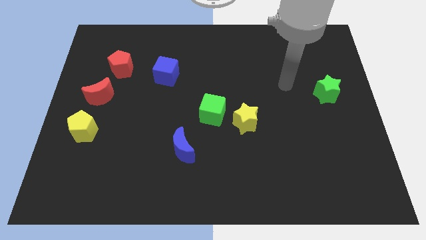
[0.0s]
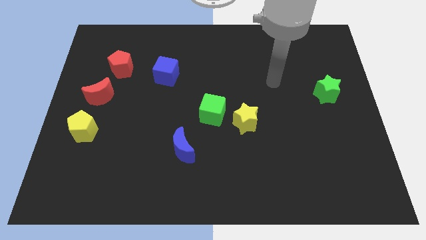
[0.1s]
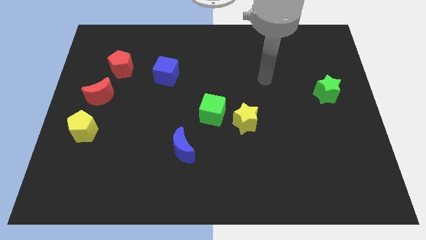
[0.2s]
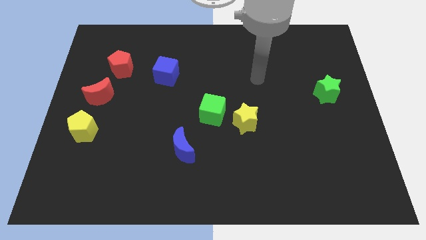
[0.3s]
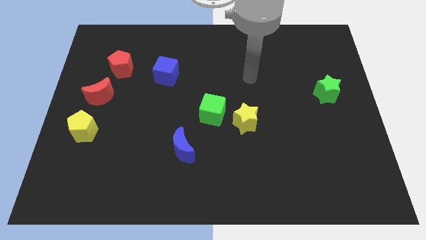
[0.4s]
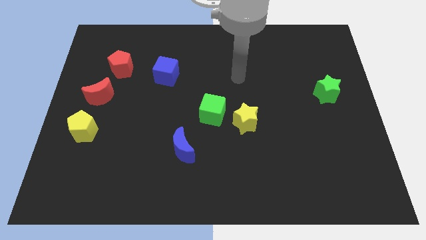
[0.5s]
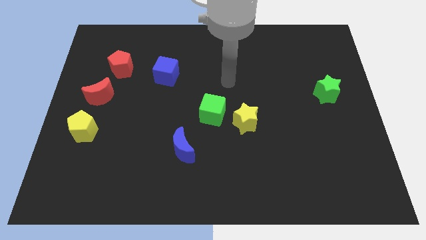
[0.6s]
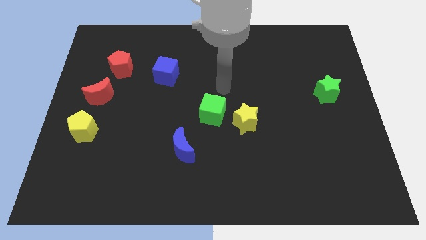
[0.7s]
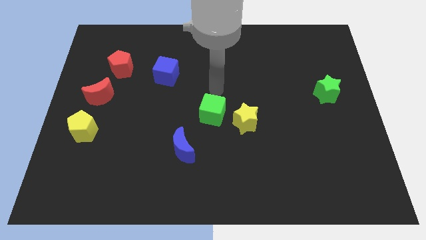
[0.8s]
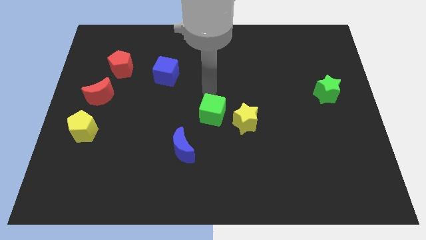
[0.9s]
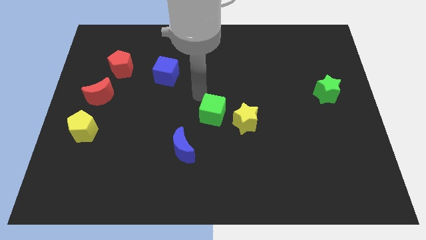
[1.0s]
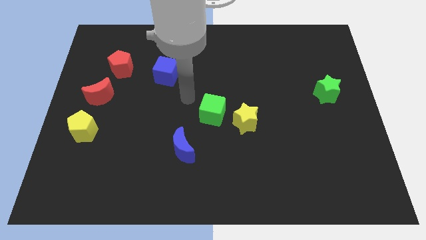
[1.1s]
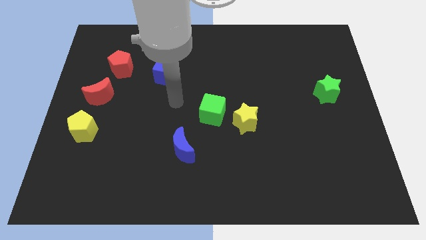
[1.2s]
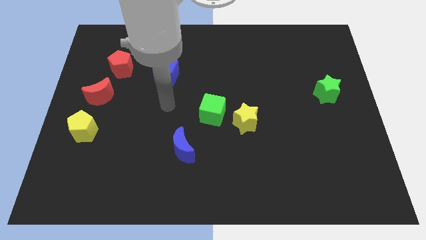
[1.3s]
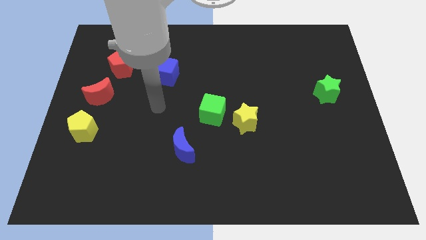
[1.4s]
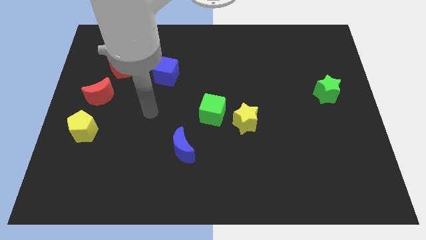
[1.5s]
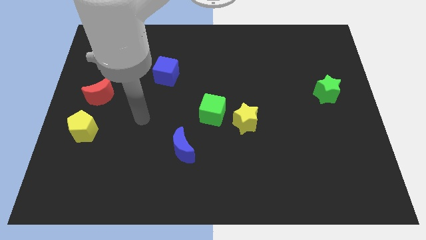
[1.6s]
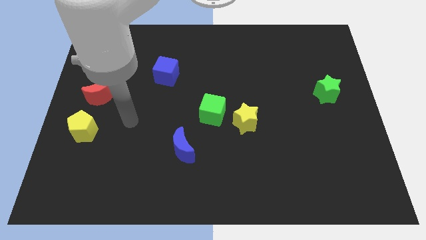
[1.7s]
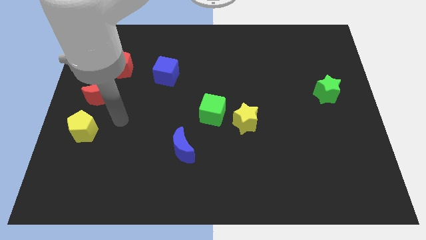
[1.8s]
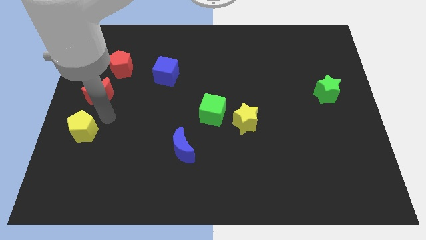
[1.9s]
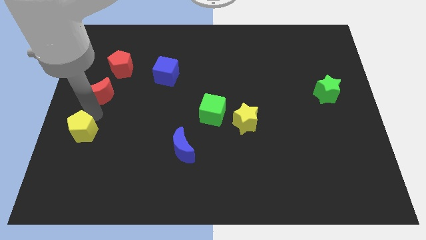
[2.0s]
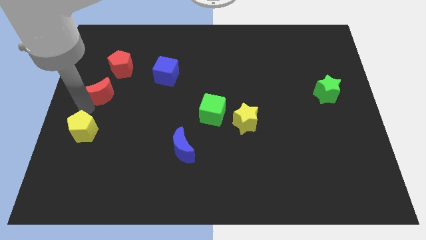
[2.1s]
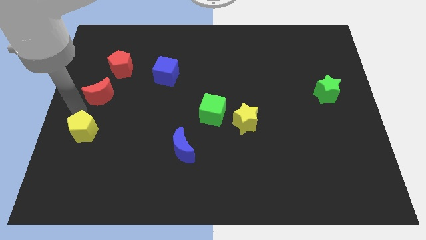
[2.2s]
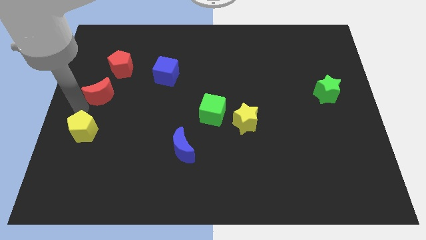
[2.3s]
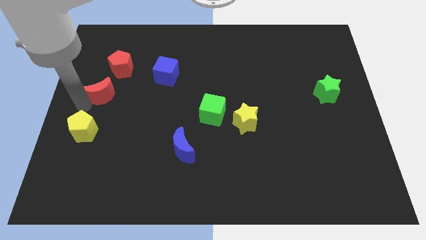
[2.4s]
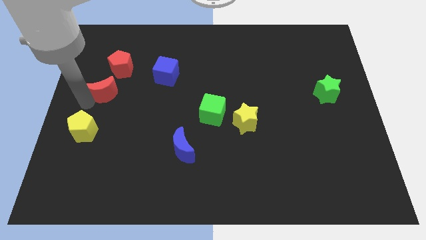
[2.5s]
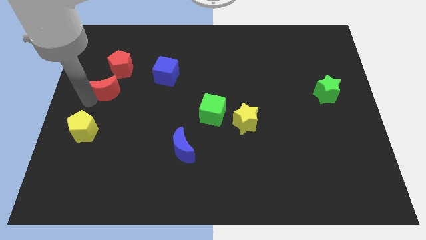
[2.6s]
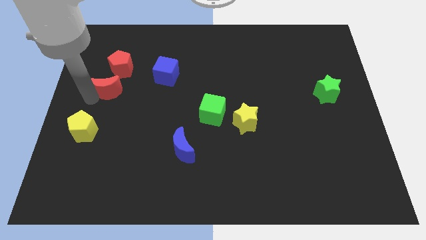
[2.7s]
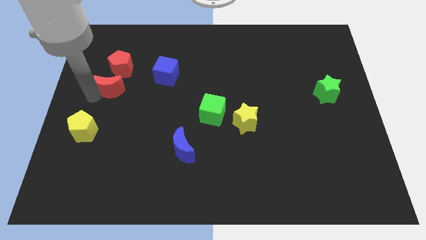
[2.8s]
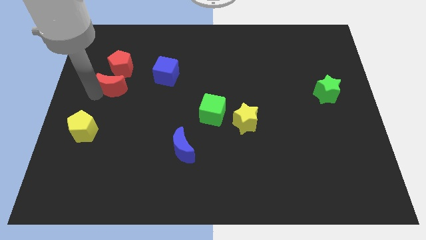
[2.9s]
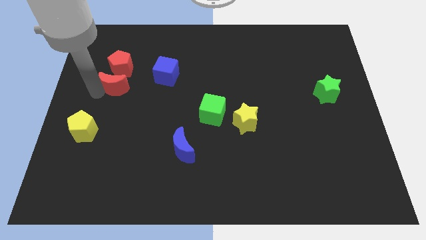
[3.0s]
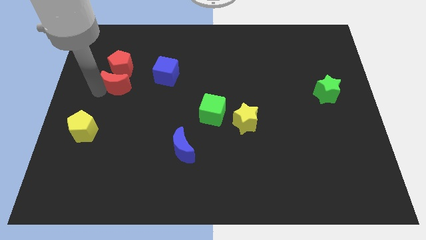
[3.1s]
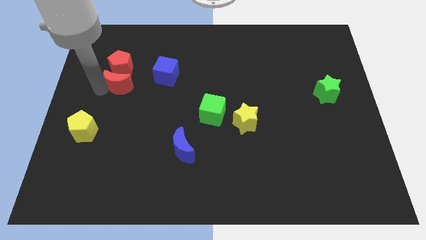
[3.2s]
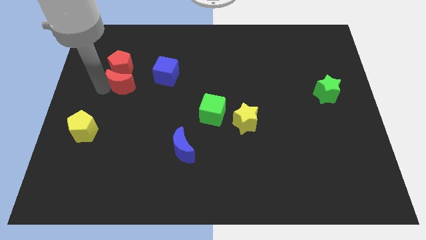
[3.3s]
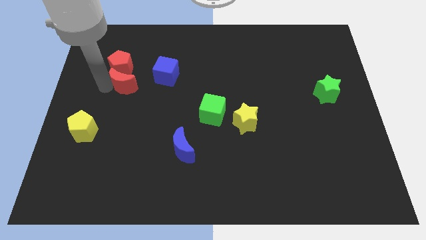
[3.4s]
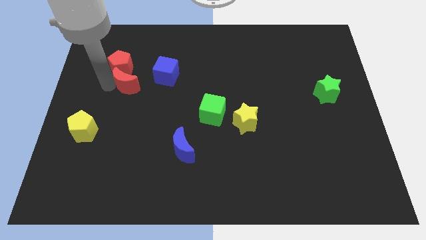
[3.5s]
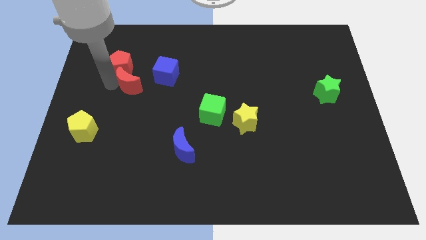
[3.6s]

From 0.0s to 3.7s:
push the red moon somewhat diagonally up and to the right

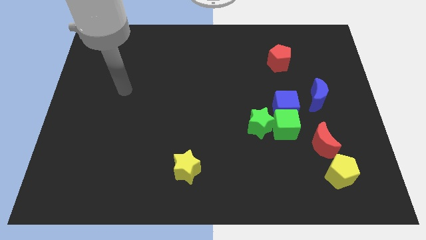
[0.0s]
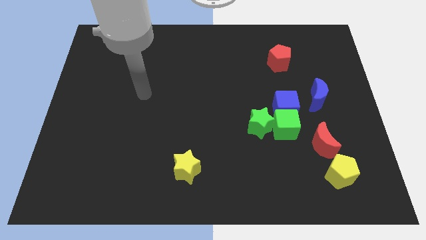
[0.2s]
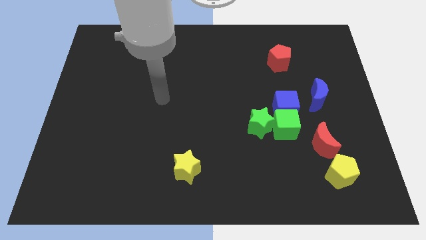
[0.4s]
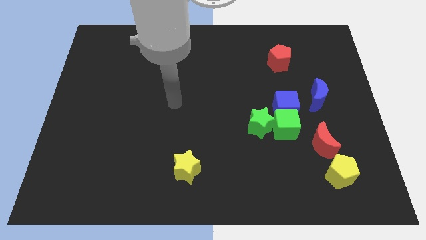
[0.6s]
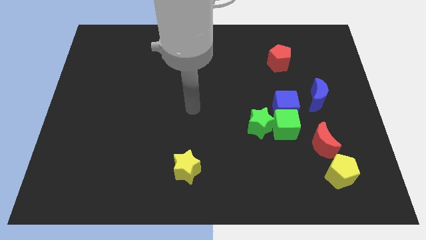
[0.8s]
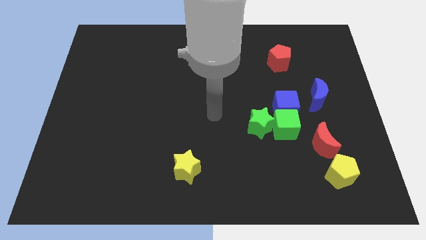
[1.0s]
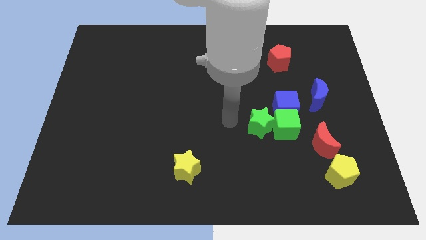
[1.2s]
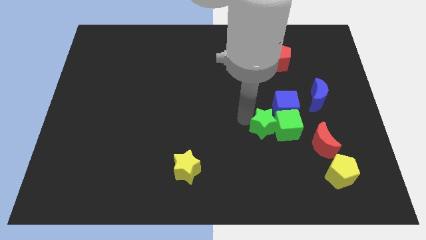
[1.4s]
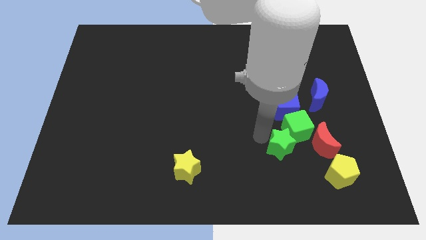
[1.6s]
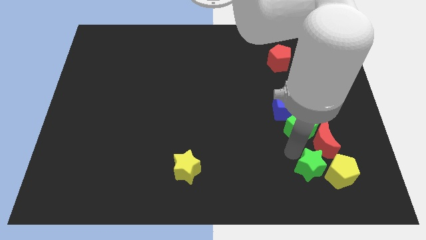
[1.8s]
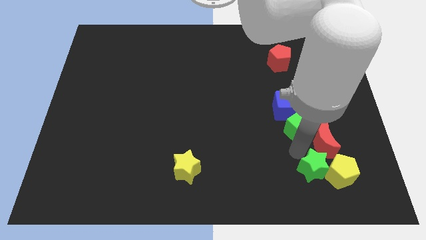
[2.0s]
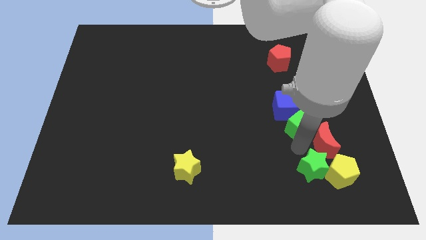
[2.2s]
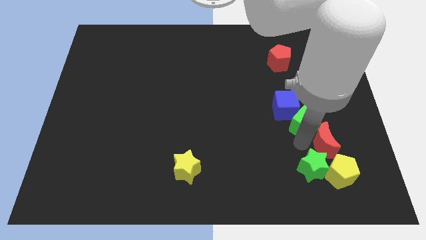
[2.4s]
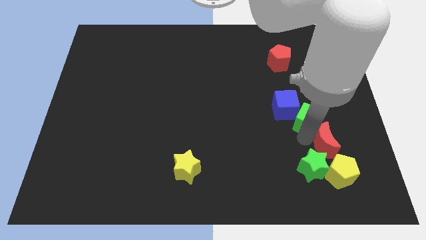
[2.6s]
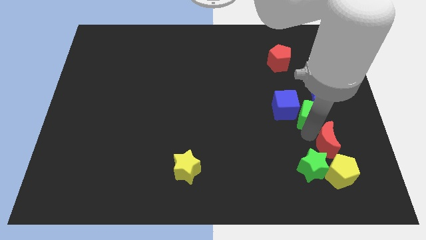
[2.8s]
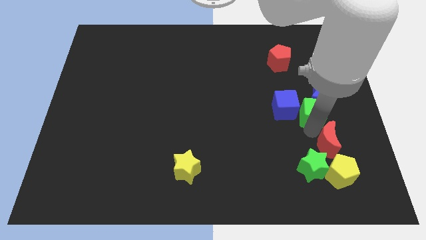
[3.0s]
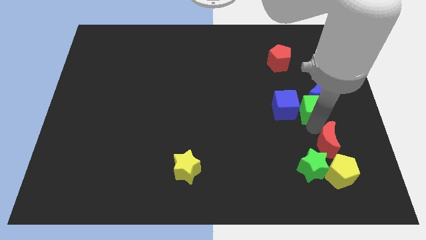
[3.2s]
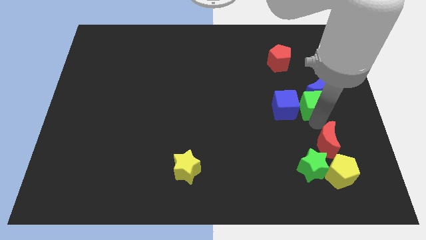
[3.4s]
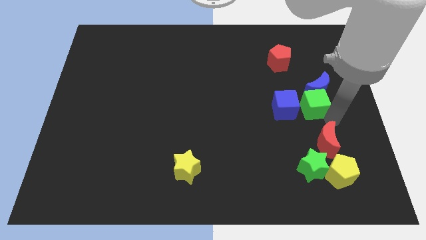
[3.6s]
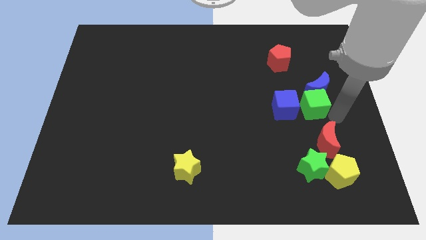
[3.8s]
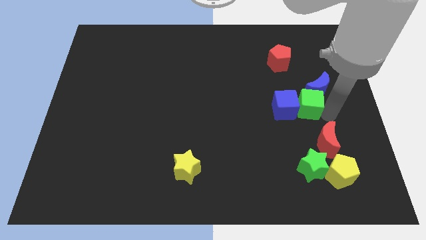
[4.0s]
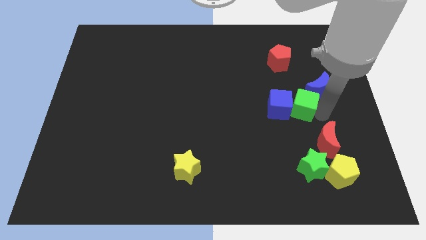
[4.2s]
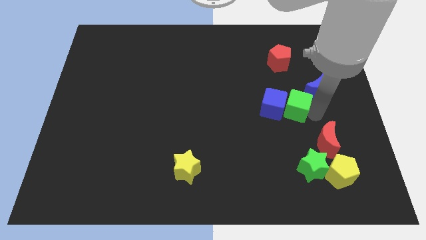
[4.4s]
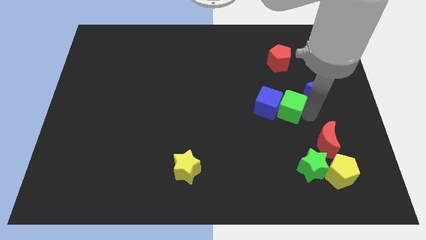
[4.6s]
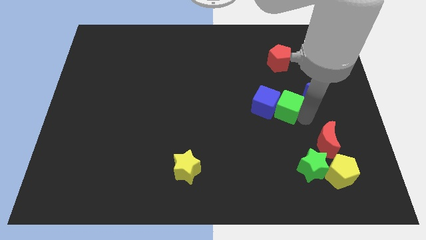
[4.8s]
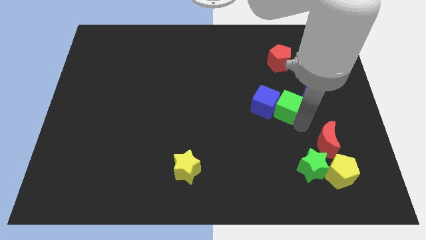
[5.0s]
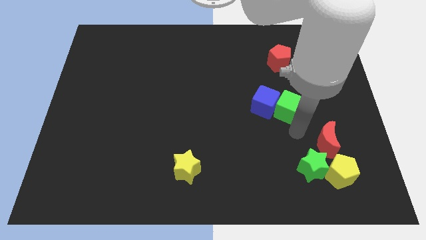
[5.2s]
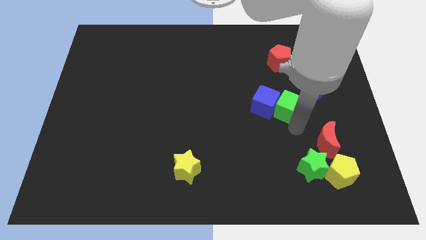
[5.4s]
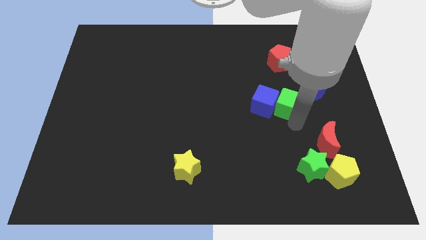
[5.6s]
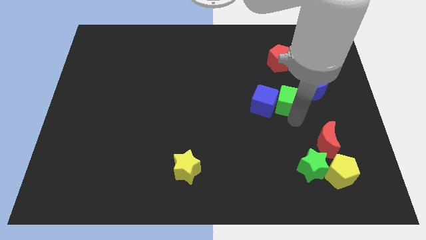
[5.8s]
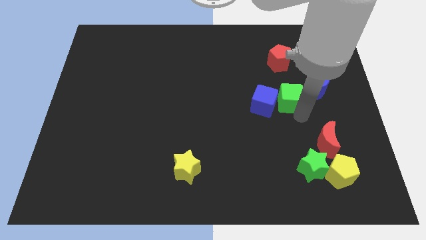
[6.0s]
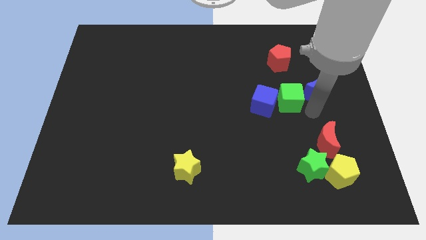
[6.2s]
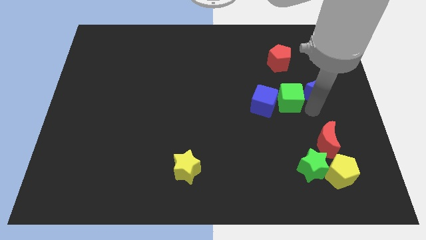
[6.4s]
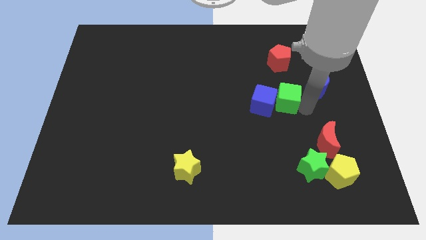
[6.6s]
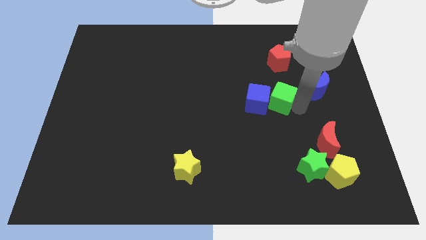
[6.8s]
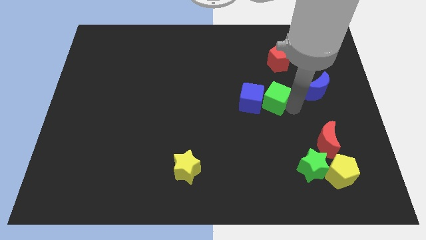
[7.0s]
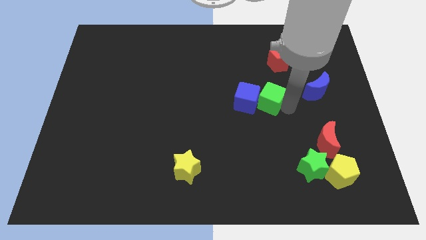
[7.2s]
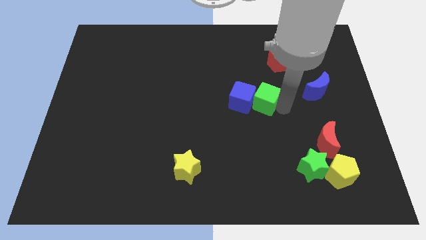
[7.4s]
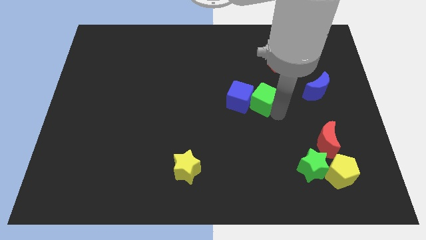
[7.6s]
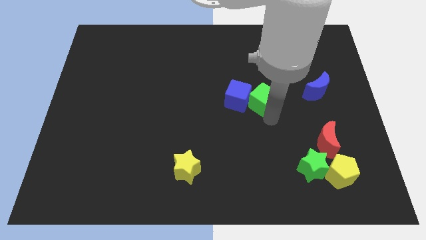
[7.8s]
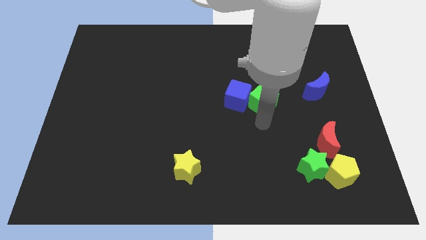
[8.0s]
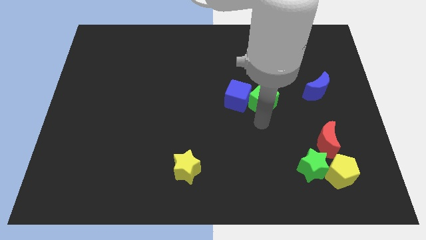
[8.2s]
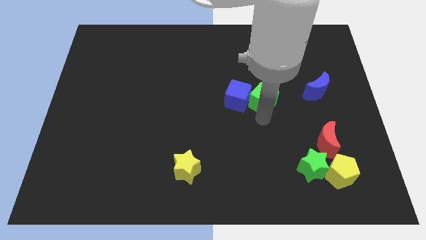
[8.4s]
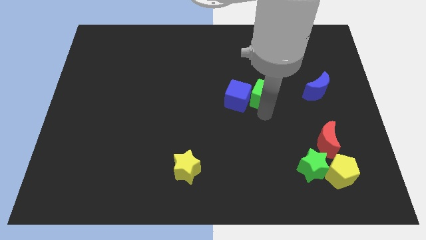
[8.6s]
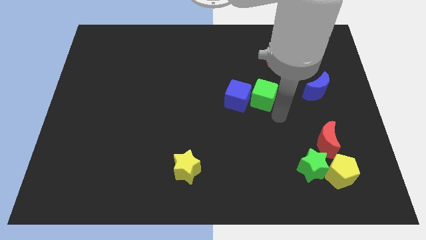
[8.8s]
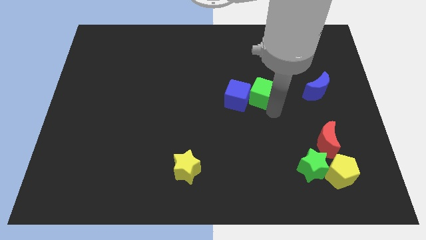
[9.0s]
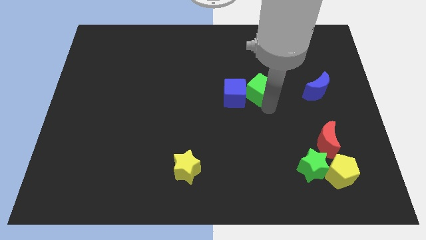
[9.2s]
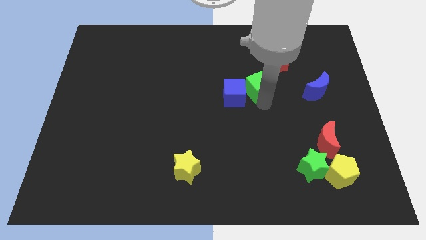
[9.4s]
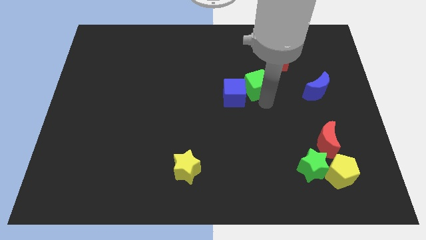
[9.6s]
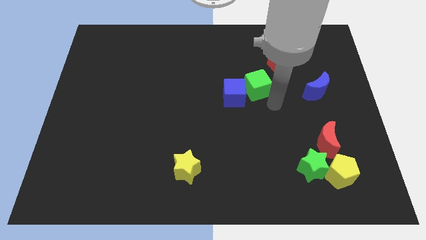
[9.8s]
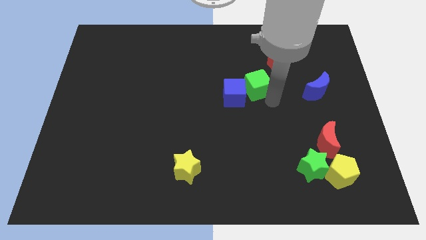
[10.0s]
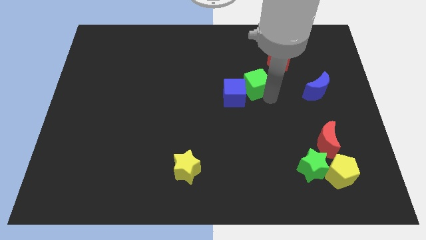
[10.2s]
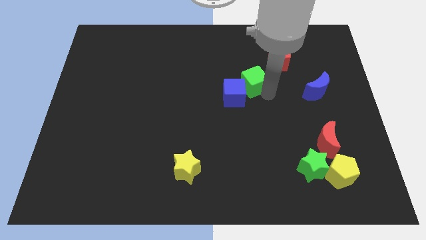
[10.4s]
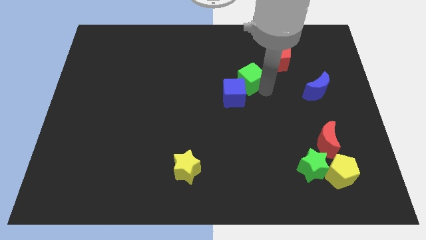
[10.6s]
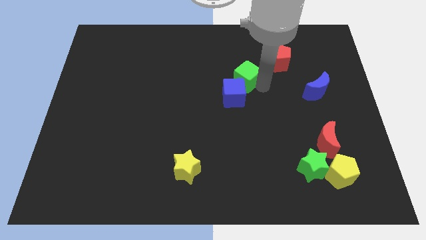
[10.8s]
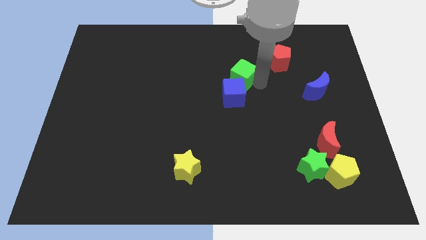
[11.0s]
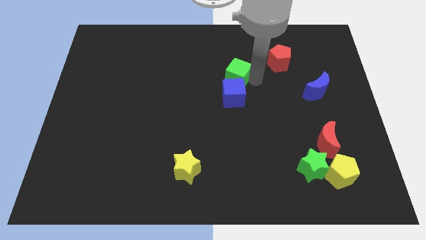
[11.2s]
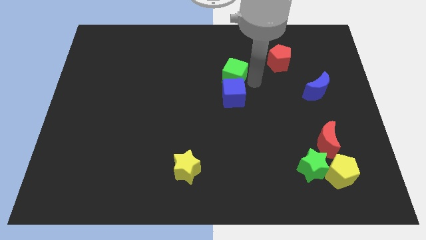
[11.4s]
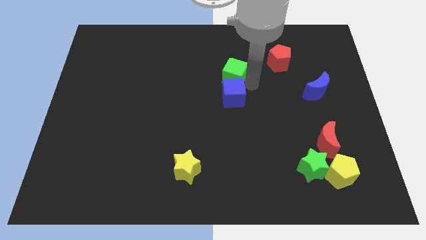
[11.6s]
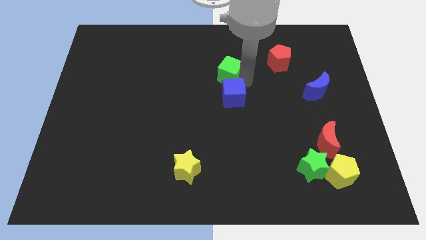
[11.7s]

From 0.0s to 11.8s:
move the green cube upwards and to the left
